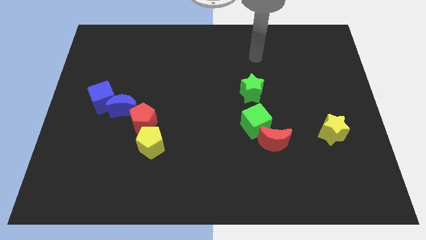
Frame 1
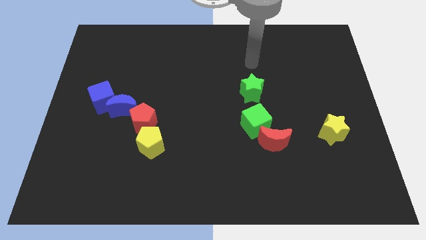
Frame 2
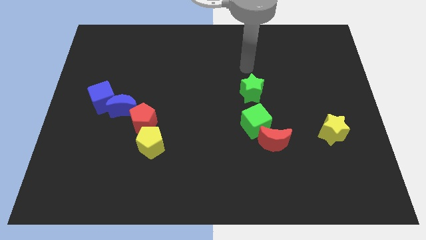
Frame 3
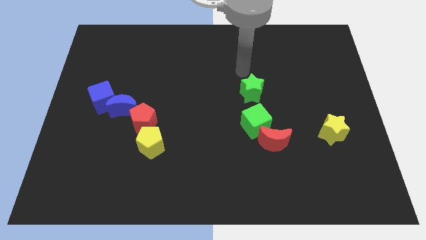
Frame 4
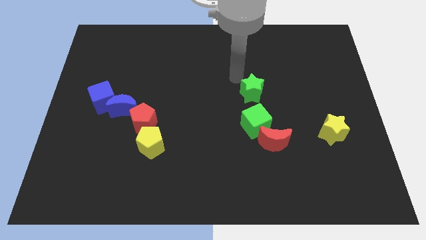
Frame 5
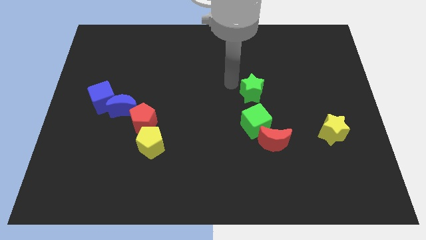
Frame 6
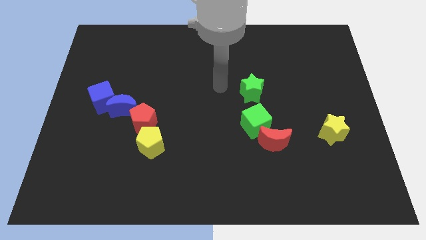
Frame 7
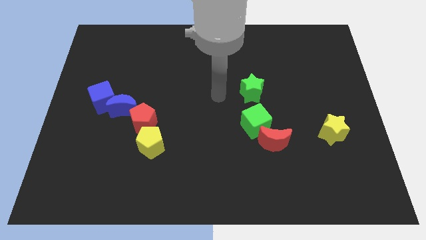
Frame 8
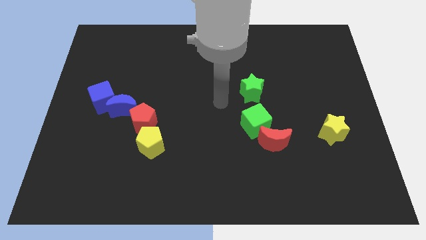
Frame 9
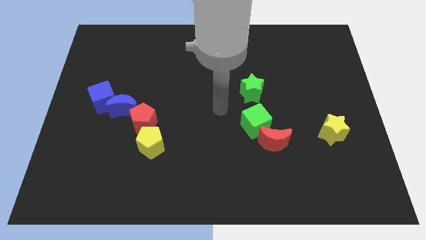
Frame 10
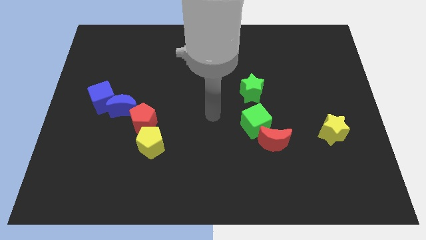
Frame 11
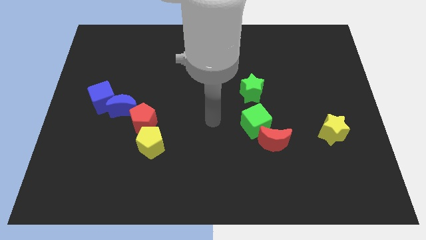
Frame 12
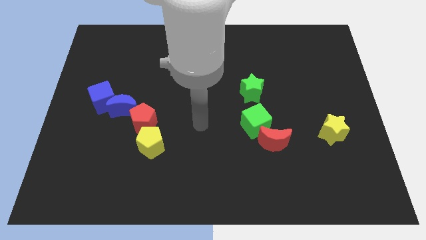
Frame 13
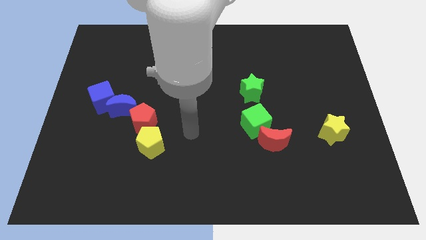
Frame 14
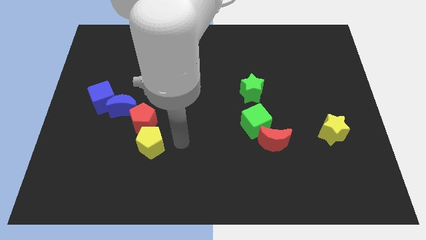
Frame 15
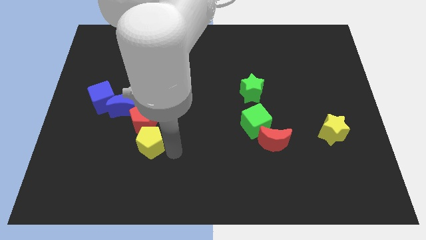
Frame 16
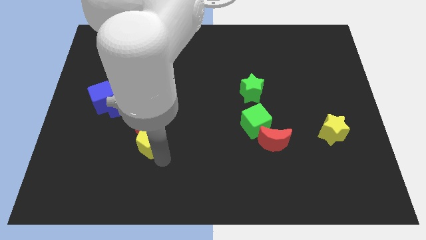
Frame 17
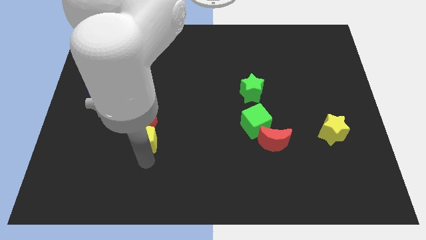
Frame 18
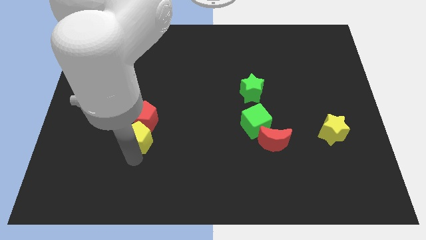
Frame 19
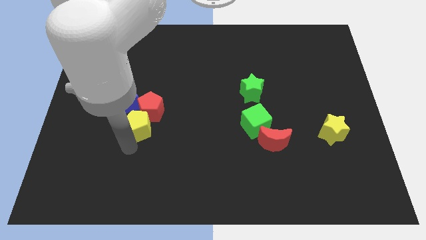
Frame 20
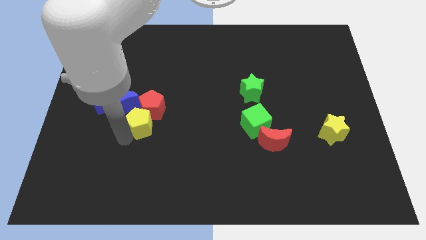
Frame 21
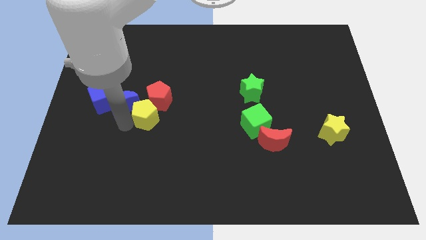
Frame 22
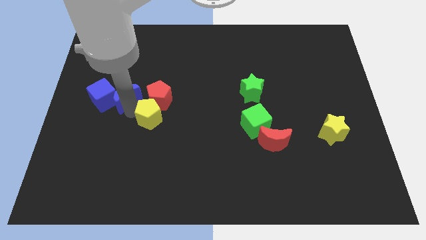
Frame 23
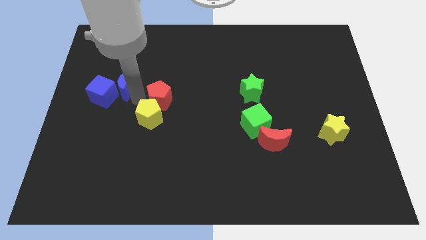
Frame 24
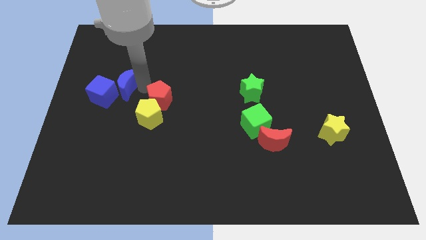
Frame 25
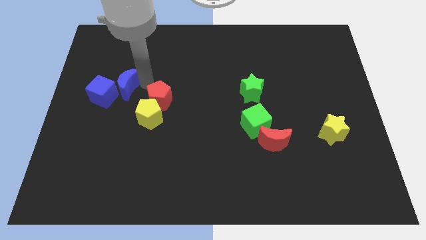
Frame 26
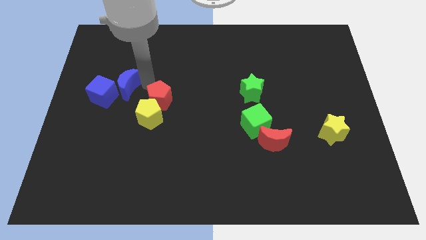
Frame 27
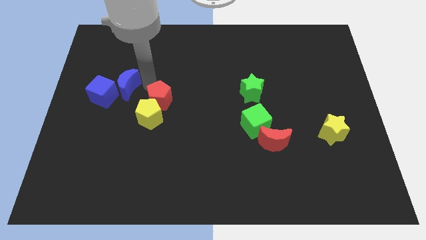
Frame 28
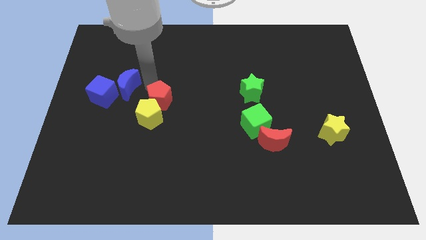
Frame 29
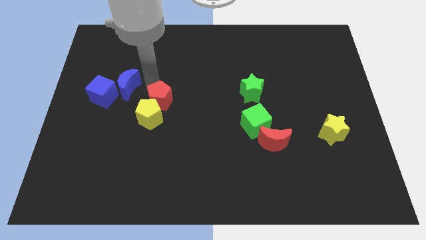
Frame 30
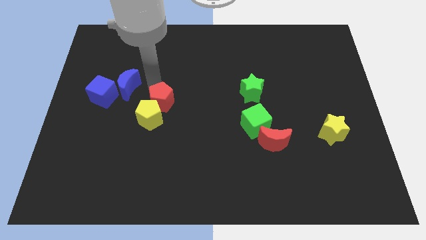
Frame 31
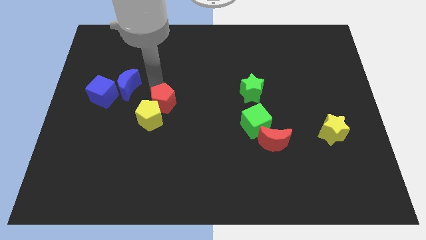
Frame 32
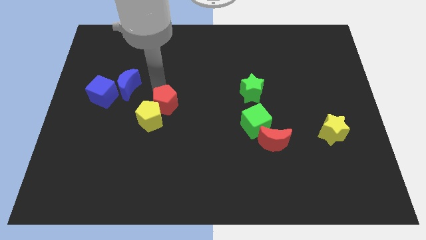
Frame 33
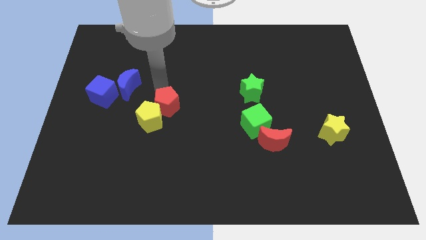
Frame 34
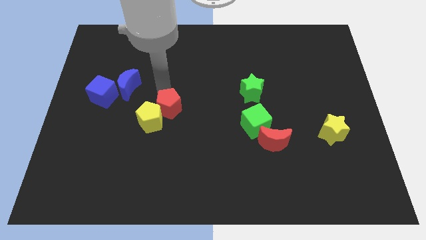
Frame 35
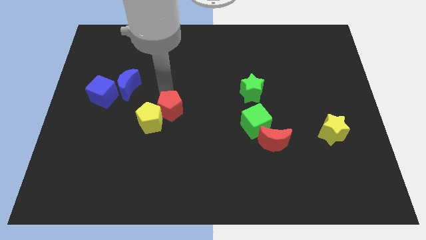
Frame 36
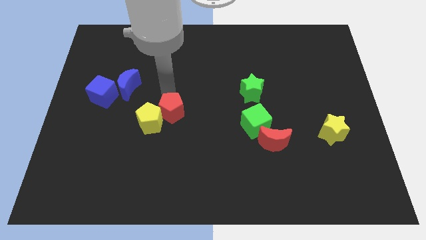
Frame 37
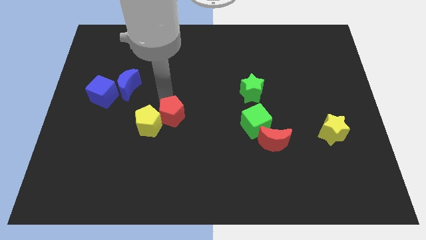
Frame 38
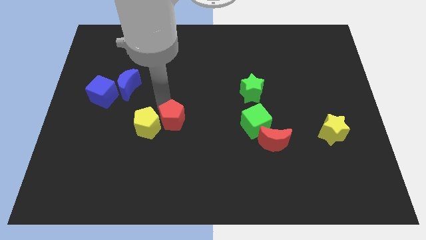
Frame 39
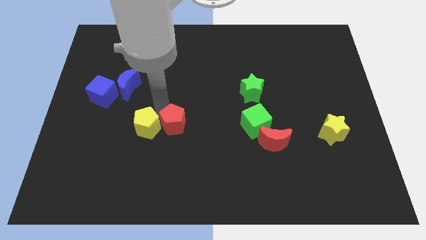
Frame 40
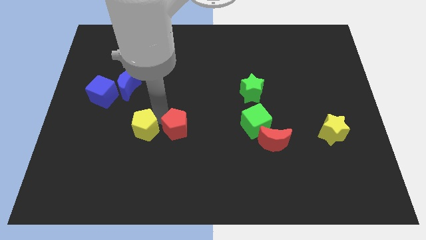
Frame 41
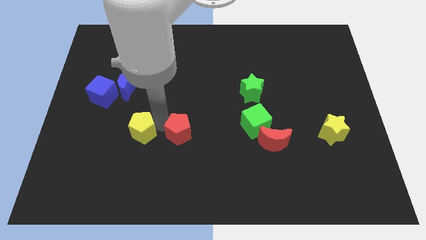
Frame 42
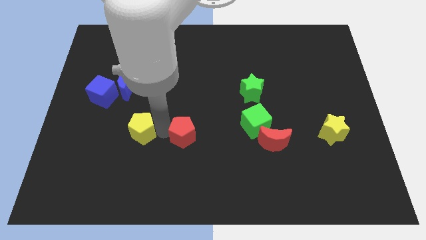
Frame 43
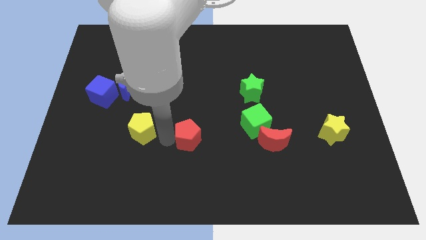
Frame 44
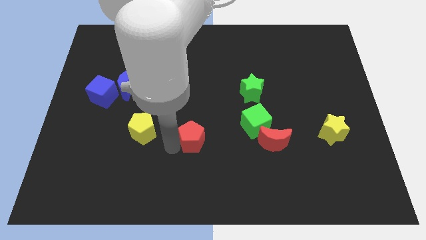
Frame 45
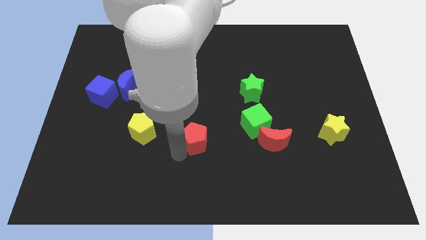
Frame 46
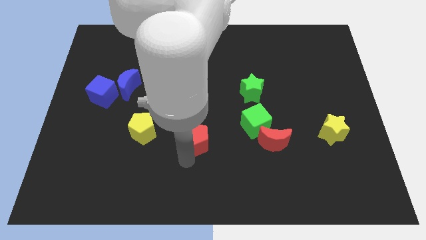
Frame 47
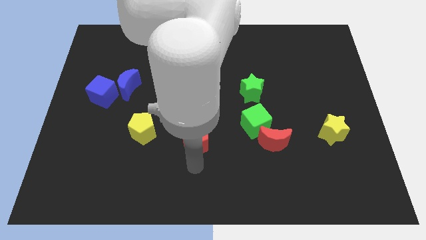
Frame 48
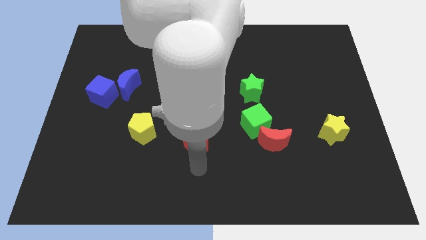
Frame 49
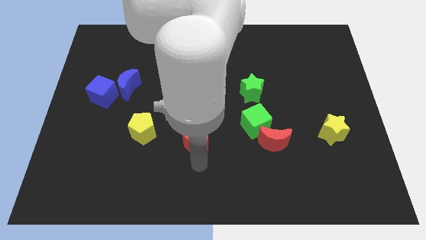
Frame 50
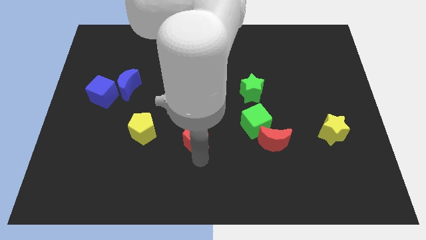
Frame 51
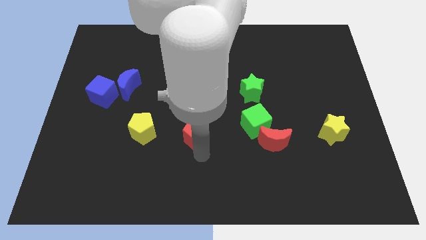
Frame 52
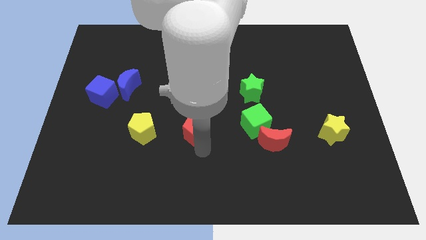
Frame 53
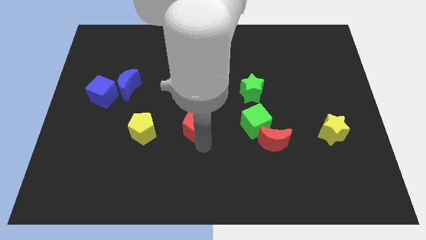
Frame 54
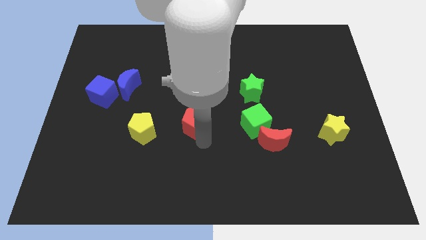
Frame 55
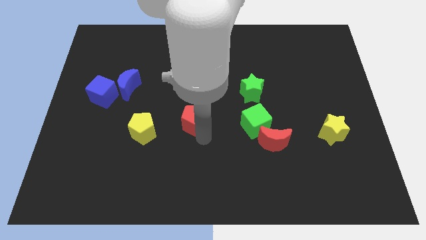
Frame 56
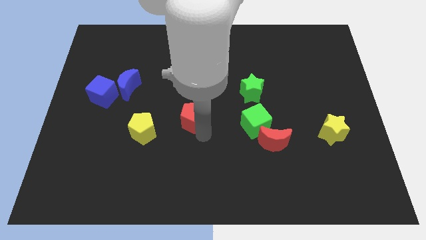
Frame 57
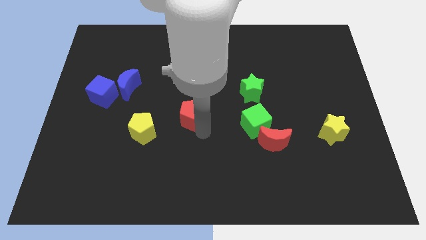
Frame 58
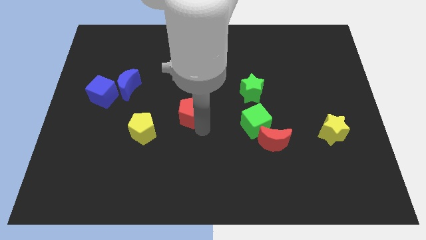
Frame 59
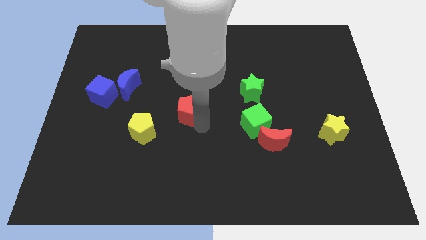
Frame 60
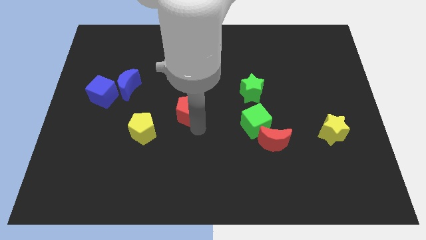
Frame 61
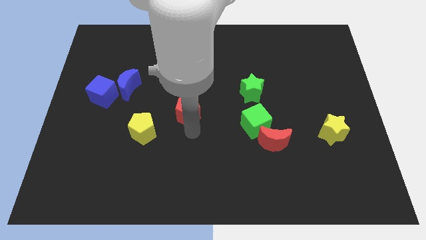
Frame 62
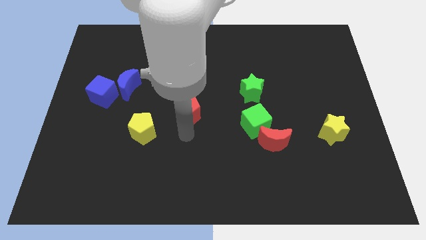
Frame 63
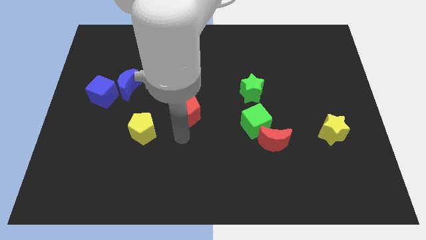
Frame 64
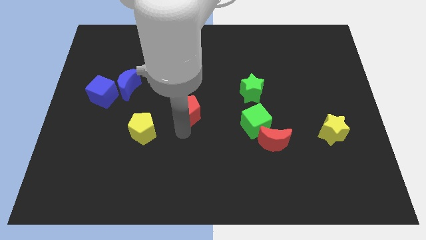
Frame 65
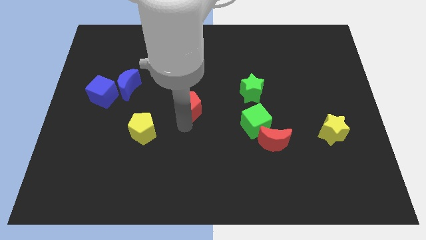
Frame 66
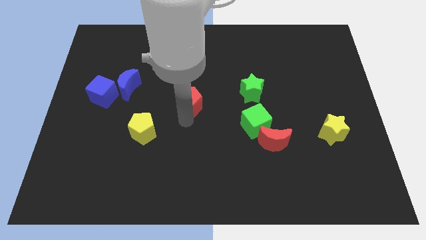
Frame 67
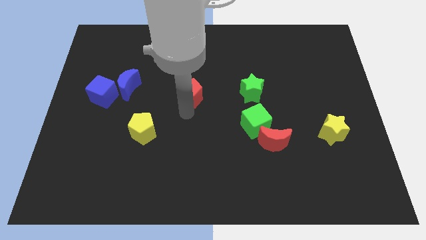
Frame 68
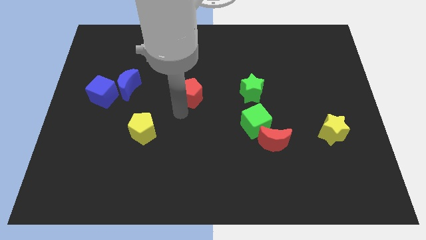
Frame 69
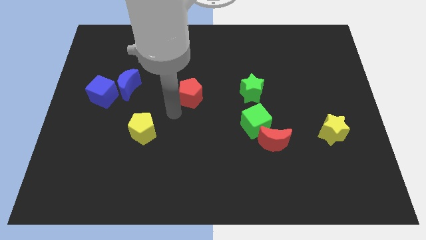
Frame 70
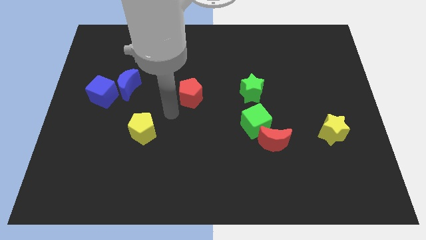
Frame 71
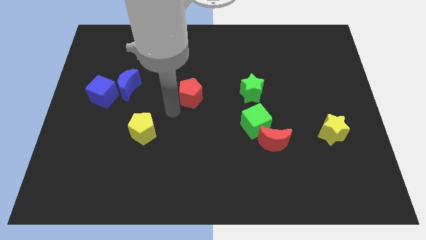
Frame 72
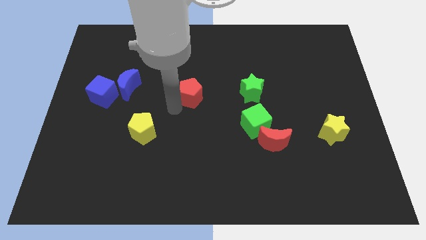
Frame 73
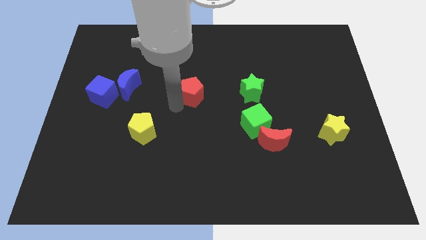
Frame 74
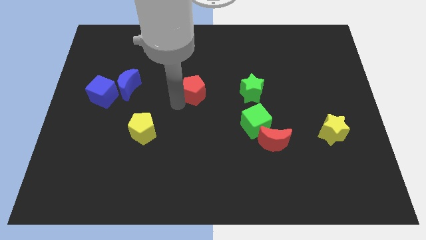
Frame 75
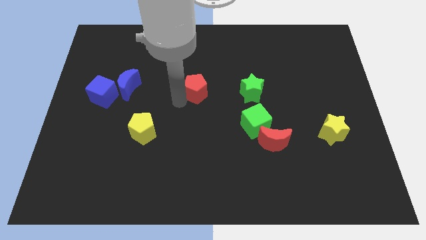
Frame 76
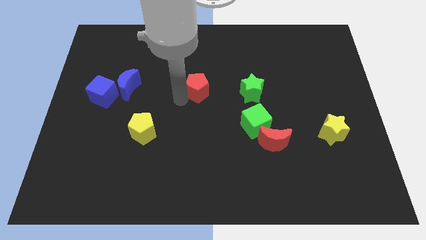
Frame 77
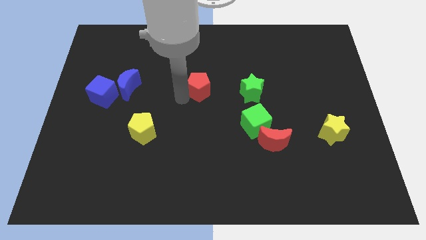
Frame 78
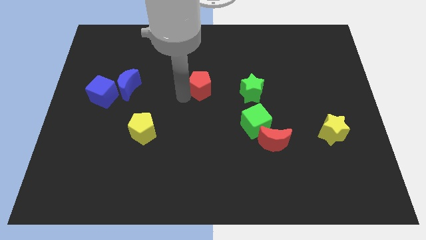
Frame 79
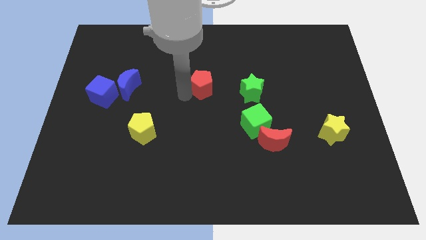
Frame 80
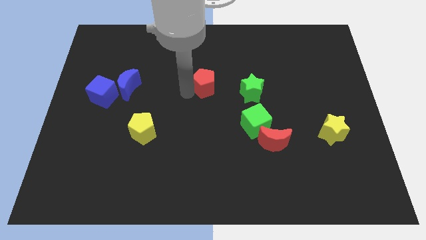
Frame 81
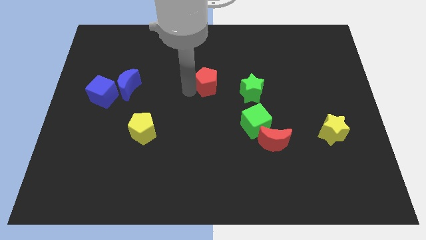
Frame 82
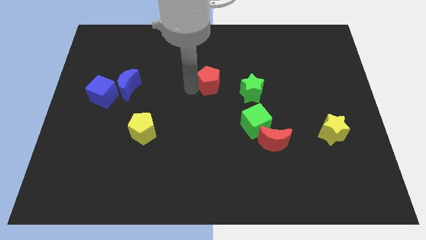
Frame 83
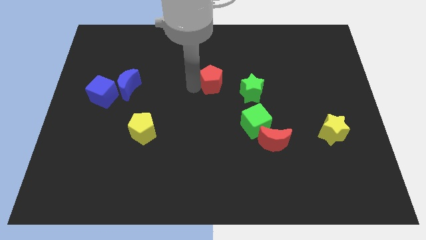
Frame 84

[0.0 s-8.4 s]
move the red pentagon to the top left side of the green star
